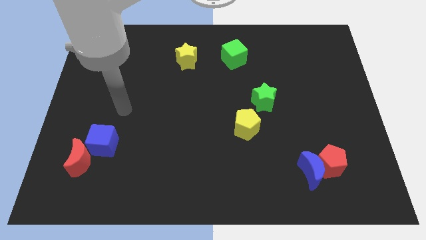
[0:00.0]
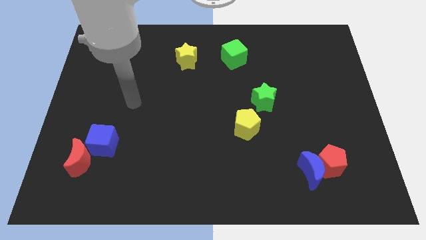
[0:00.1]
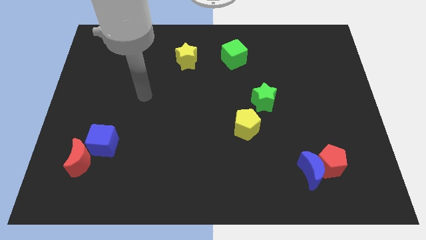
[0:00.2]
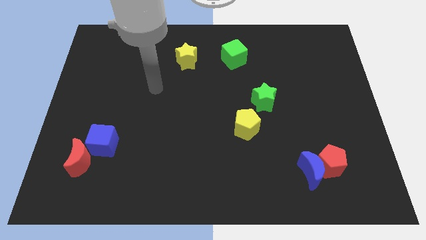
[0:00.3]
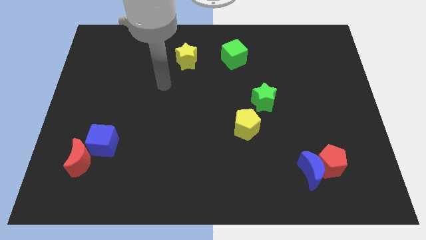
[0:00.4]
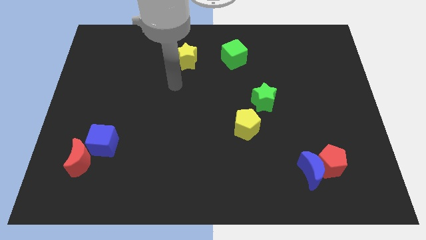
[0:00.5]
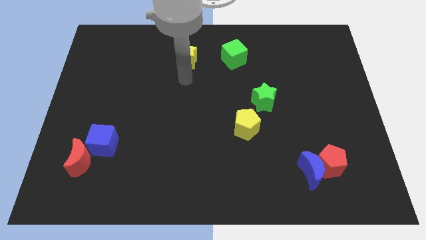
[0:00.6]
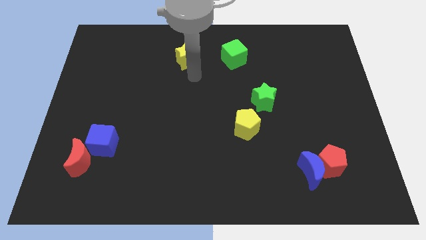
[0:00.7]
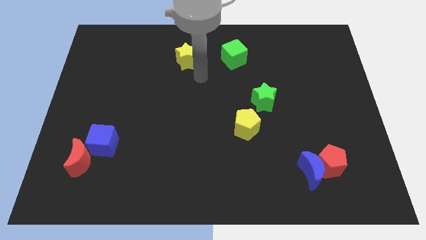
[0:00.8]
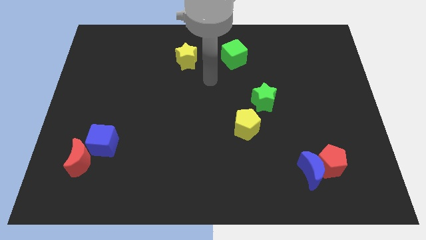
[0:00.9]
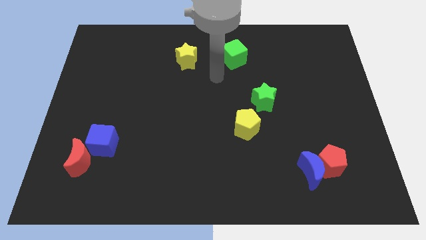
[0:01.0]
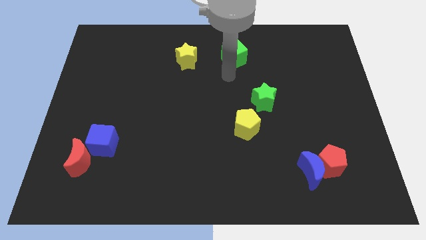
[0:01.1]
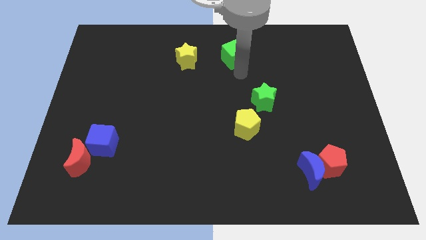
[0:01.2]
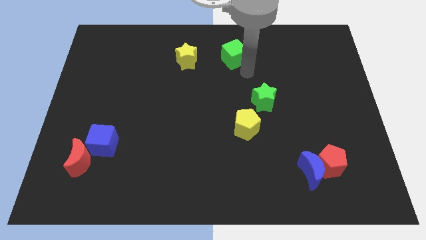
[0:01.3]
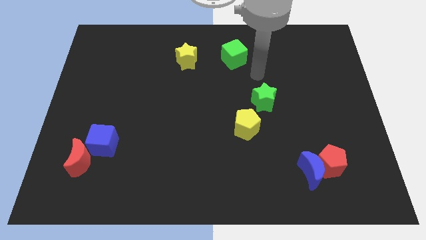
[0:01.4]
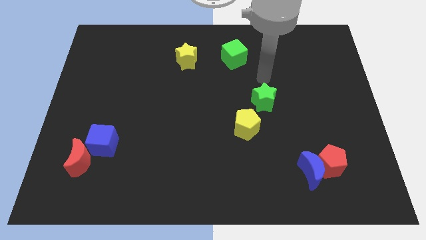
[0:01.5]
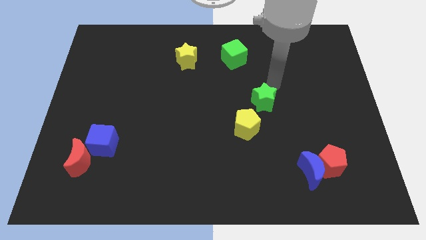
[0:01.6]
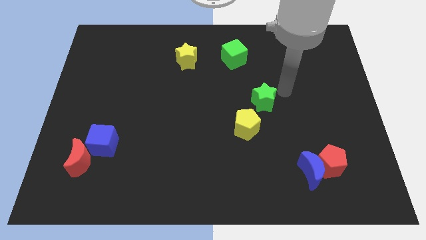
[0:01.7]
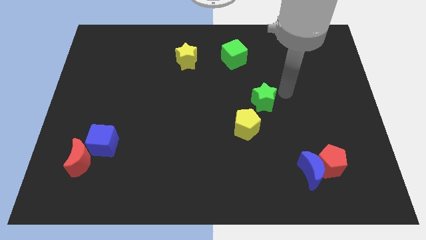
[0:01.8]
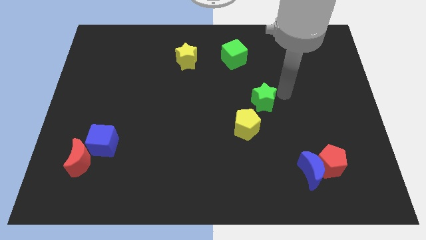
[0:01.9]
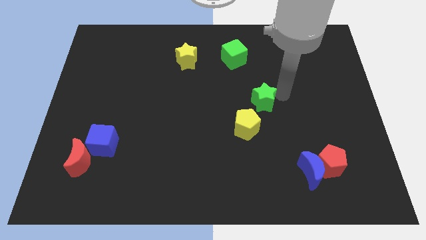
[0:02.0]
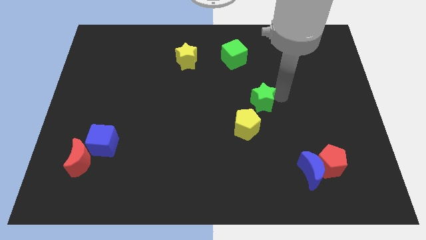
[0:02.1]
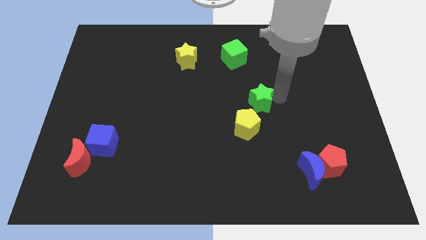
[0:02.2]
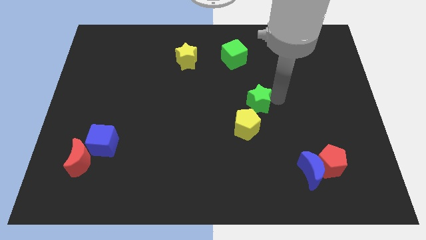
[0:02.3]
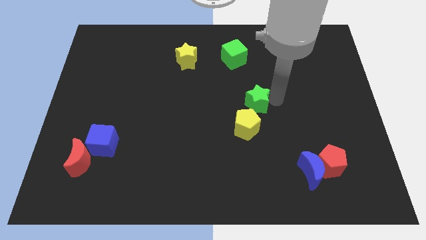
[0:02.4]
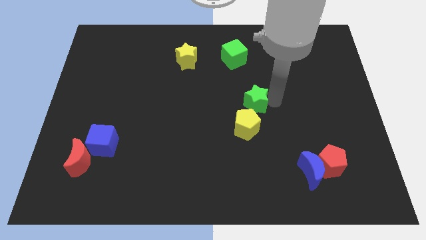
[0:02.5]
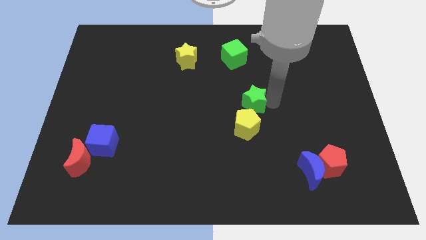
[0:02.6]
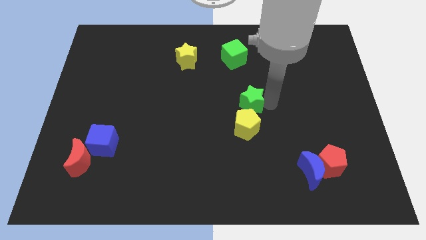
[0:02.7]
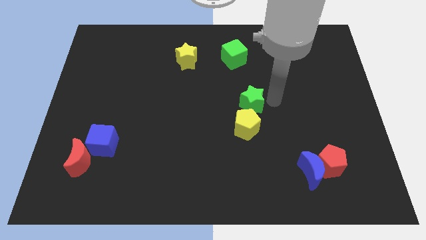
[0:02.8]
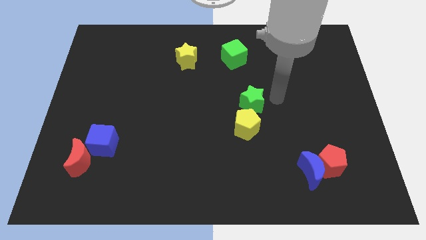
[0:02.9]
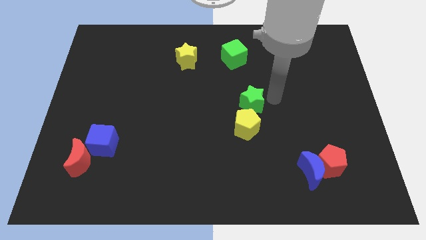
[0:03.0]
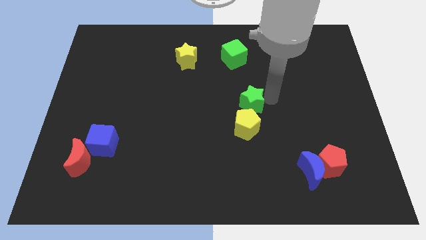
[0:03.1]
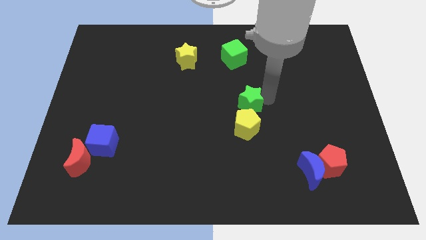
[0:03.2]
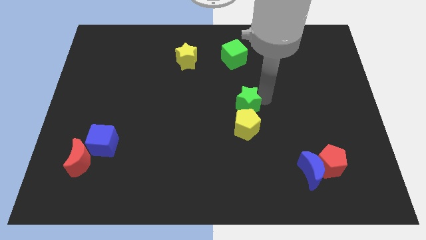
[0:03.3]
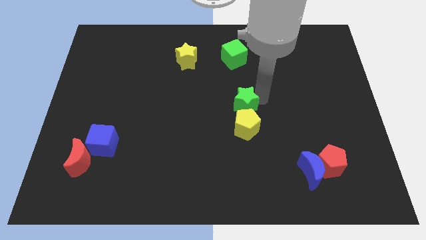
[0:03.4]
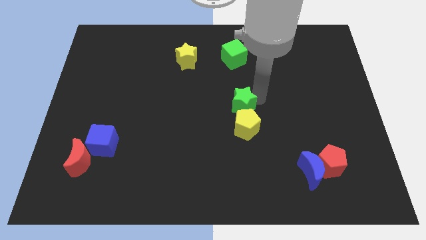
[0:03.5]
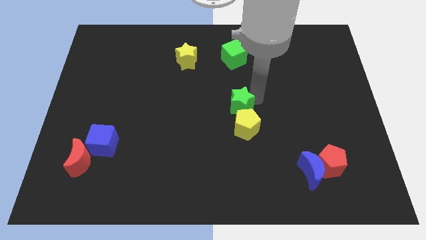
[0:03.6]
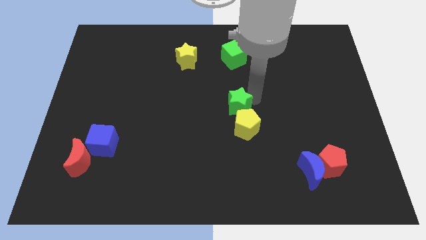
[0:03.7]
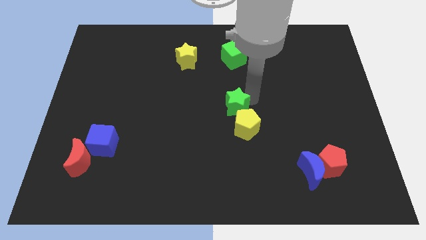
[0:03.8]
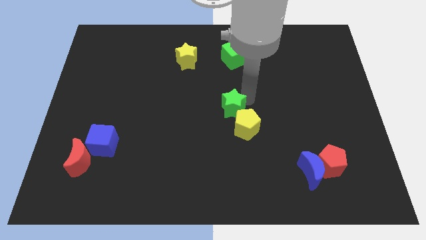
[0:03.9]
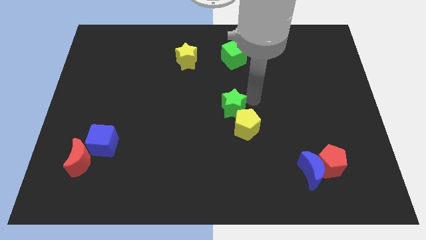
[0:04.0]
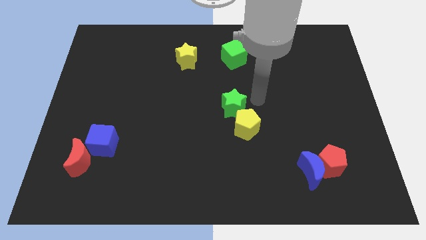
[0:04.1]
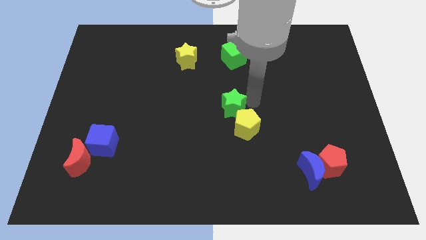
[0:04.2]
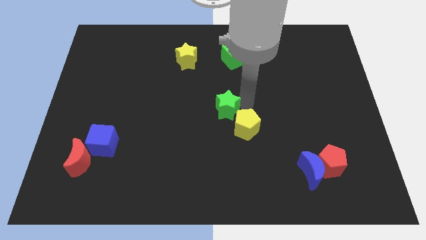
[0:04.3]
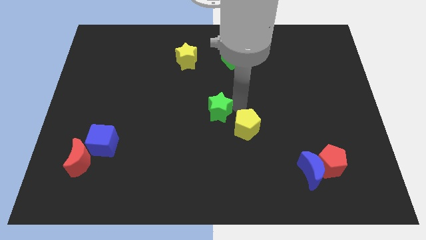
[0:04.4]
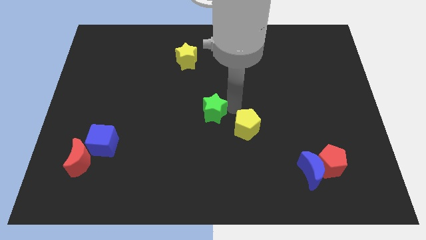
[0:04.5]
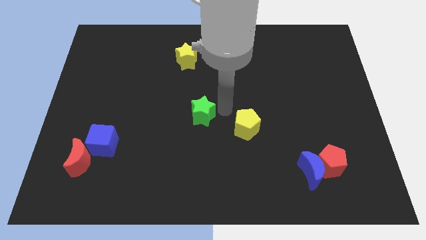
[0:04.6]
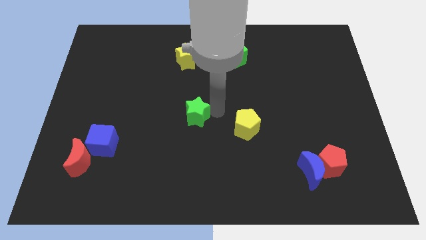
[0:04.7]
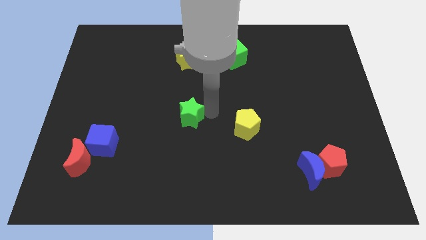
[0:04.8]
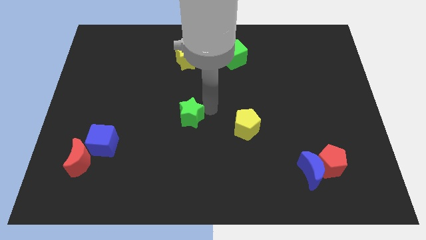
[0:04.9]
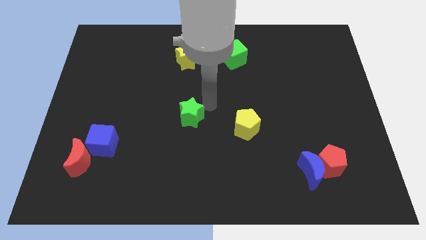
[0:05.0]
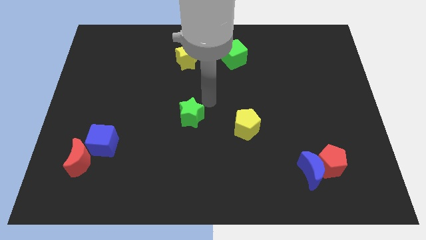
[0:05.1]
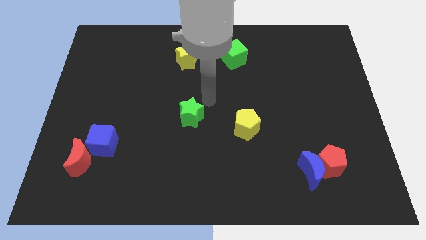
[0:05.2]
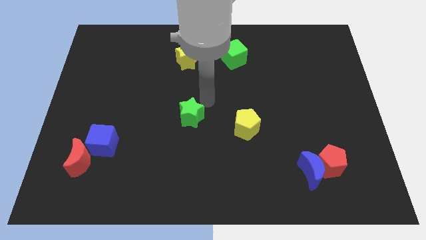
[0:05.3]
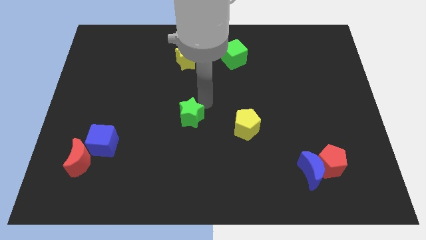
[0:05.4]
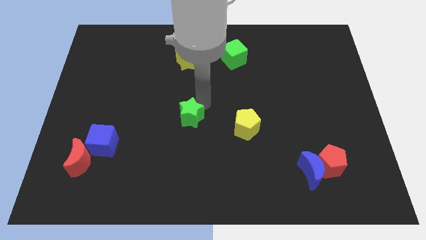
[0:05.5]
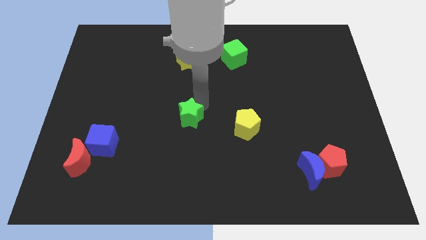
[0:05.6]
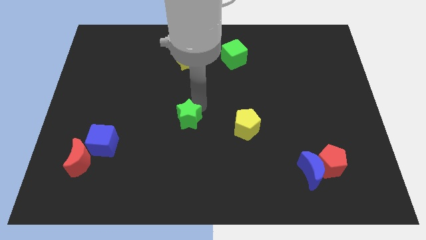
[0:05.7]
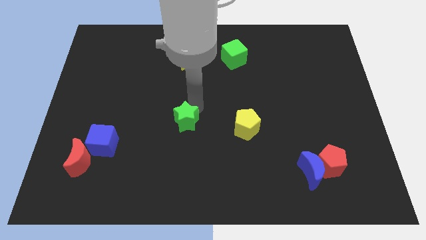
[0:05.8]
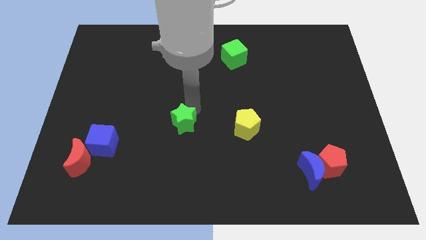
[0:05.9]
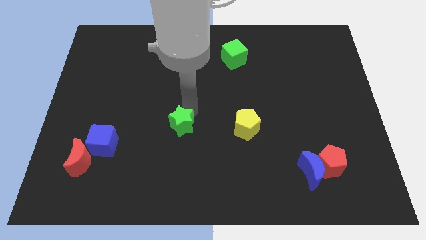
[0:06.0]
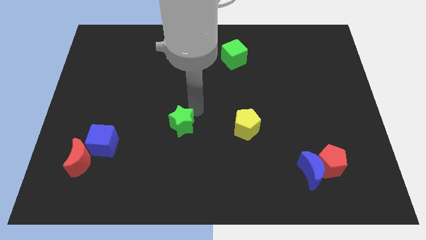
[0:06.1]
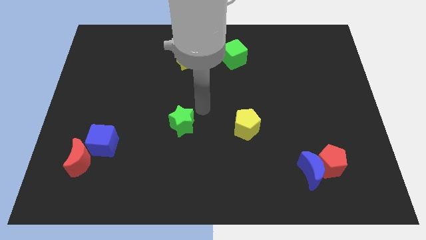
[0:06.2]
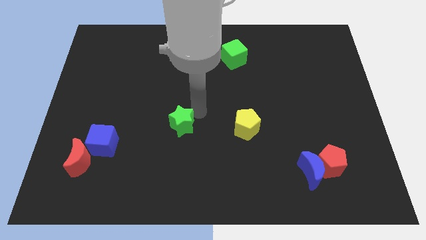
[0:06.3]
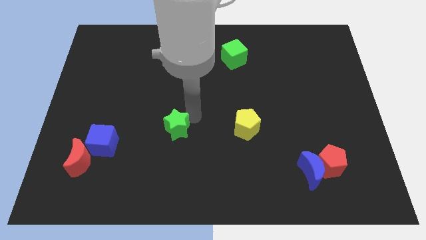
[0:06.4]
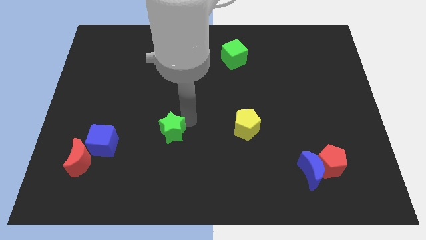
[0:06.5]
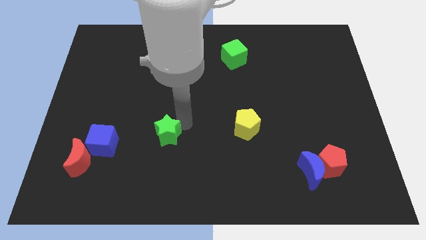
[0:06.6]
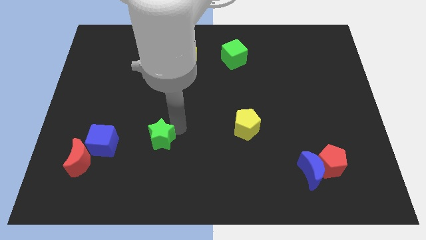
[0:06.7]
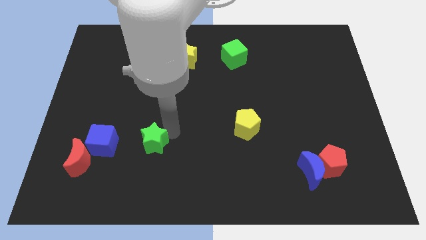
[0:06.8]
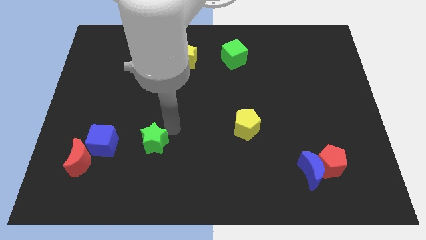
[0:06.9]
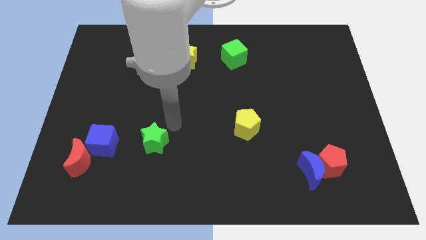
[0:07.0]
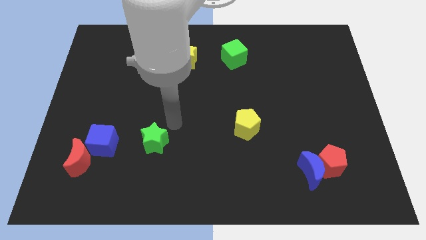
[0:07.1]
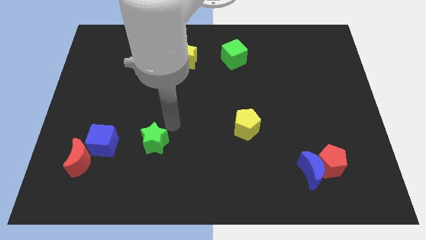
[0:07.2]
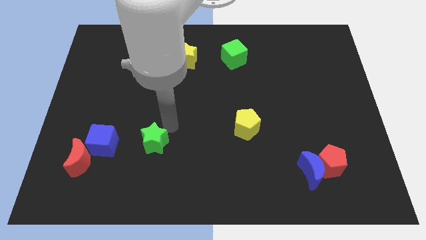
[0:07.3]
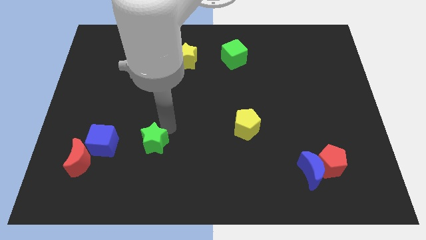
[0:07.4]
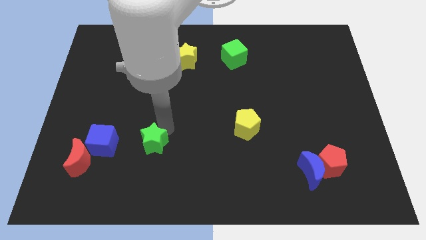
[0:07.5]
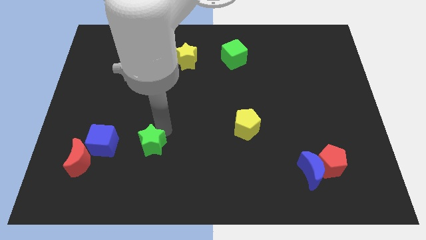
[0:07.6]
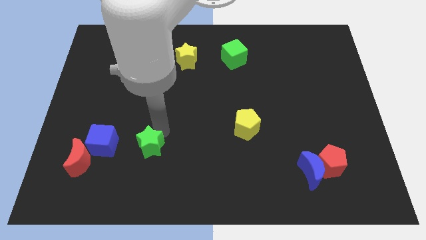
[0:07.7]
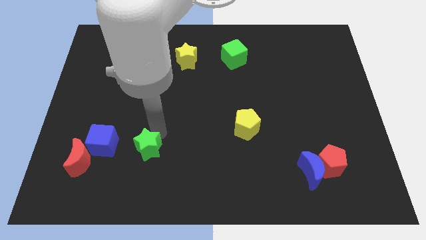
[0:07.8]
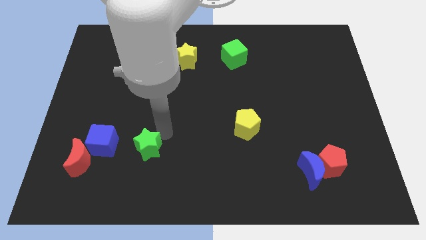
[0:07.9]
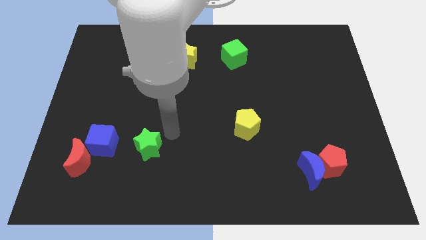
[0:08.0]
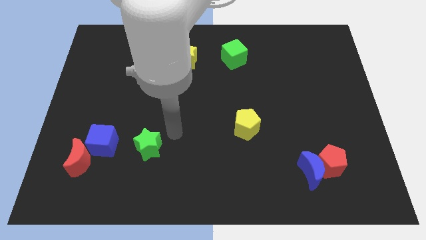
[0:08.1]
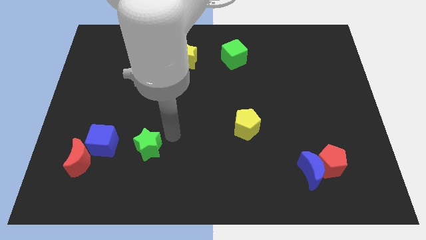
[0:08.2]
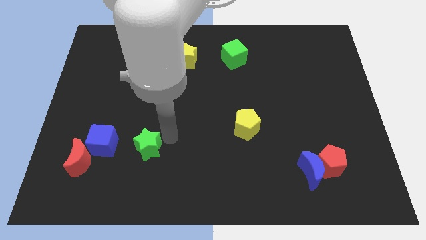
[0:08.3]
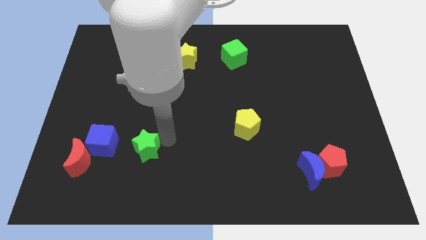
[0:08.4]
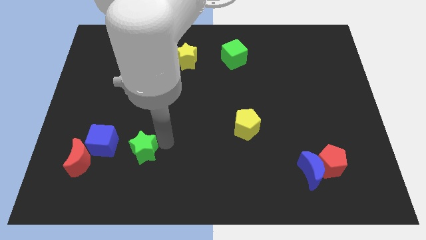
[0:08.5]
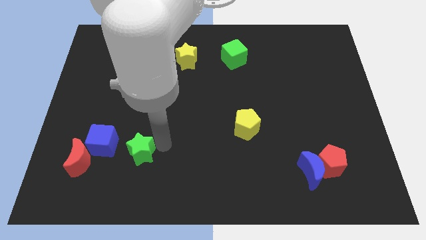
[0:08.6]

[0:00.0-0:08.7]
push the green star diagonally down and to the right of the blue cube
